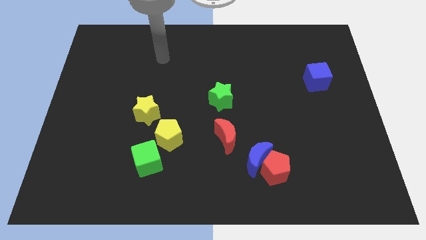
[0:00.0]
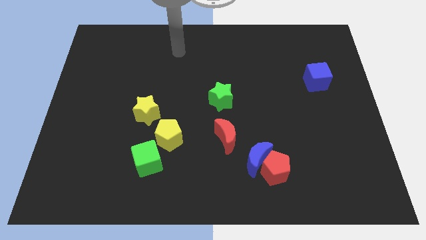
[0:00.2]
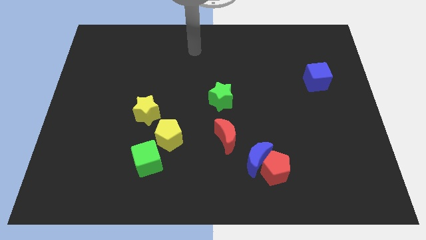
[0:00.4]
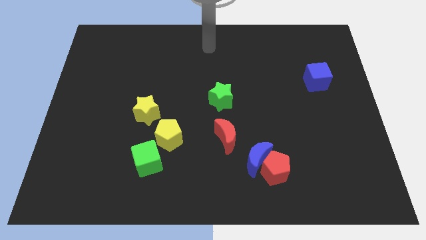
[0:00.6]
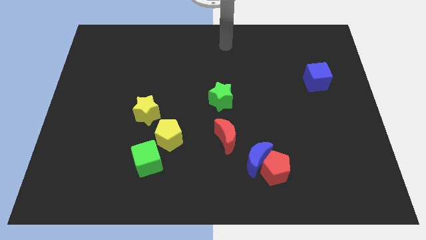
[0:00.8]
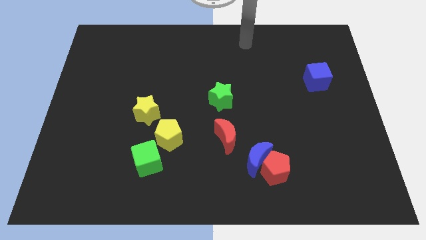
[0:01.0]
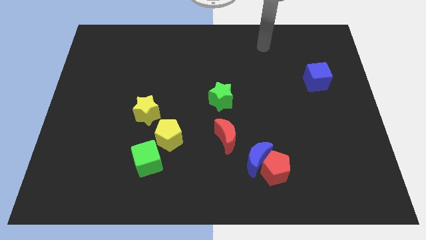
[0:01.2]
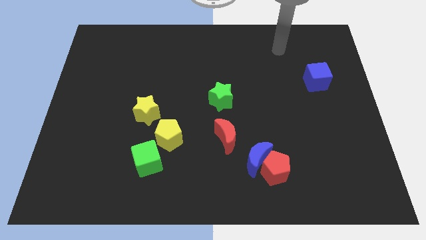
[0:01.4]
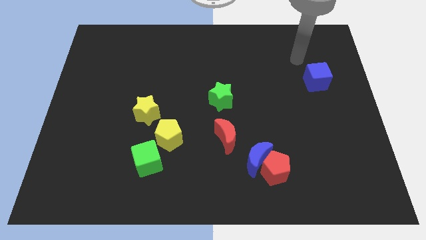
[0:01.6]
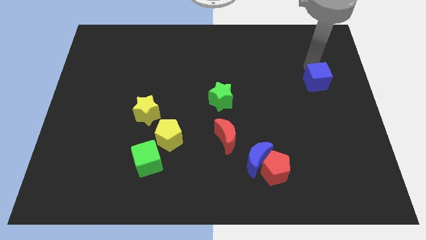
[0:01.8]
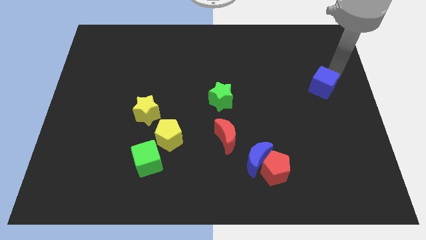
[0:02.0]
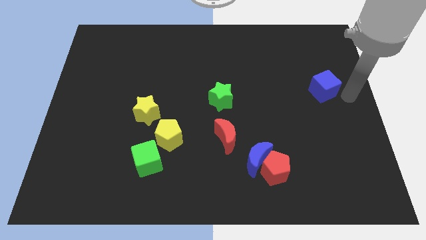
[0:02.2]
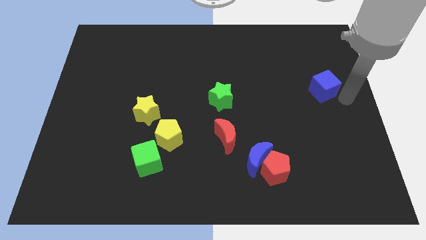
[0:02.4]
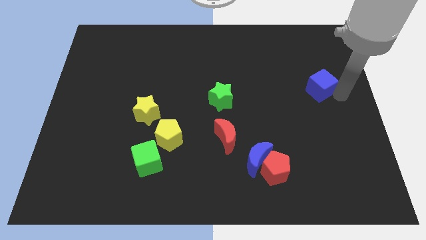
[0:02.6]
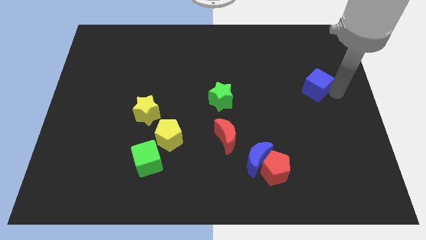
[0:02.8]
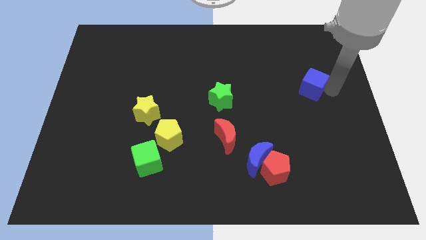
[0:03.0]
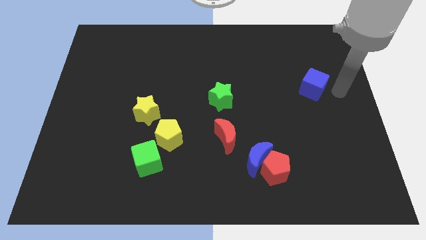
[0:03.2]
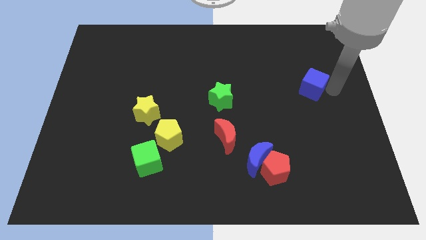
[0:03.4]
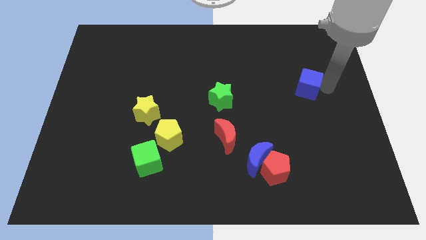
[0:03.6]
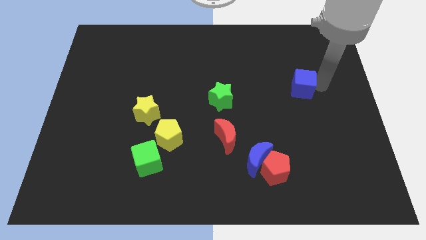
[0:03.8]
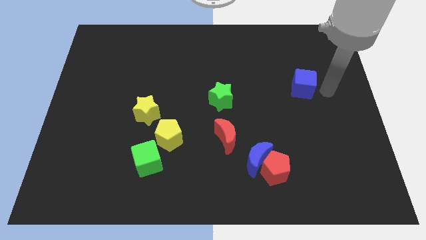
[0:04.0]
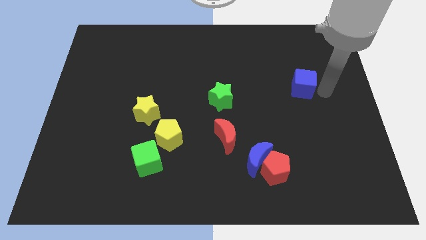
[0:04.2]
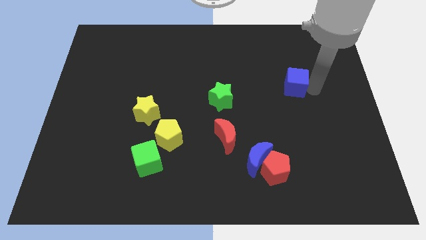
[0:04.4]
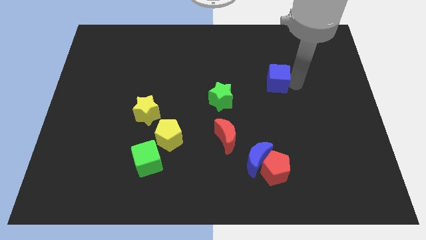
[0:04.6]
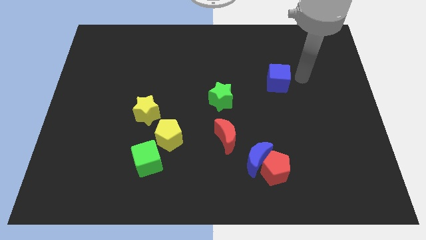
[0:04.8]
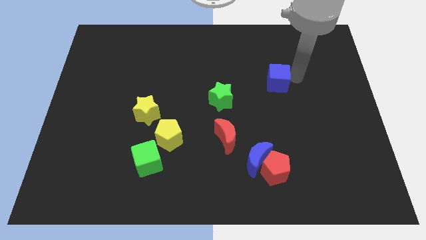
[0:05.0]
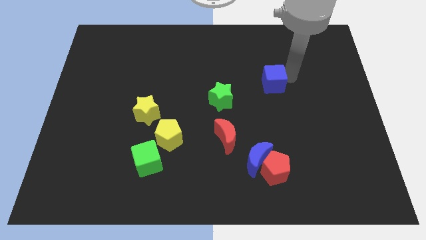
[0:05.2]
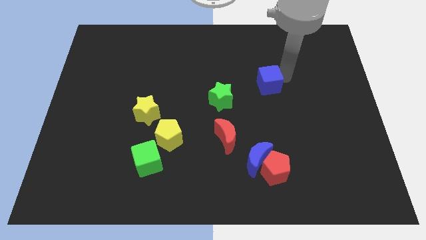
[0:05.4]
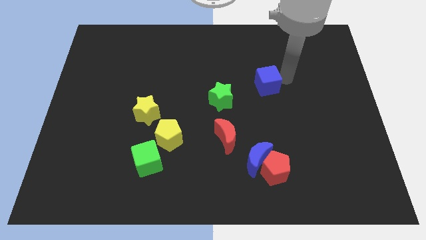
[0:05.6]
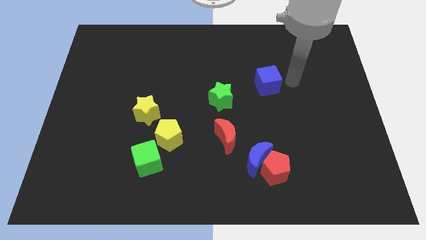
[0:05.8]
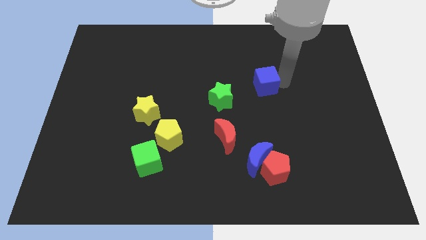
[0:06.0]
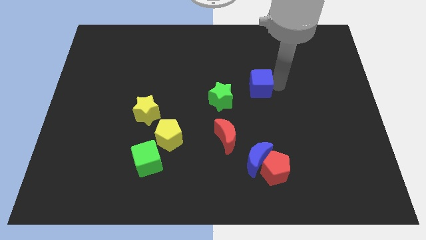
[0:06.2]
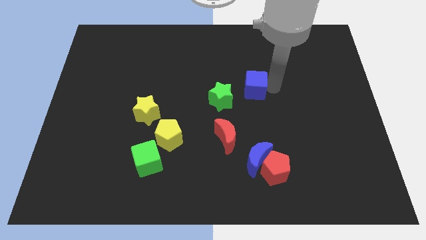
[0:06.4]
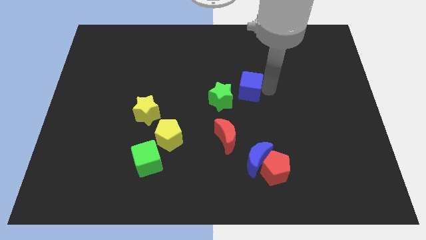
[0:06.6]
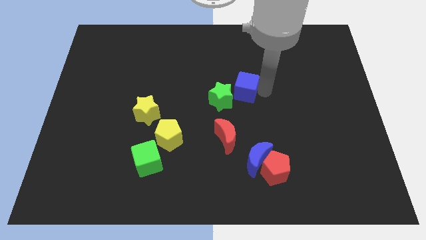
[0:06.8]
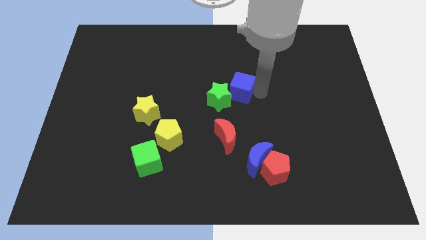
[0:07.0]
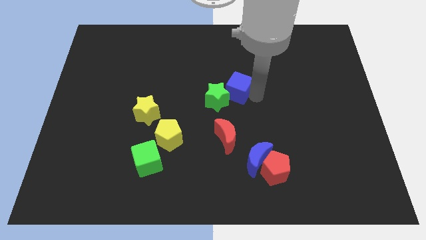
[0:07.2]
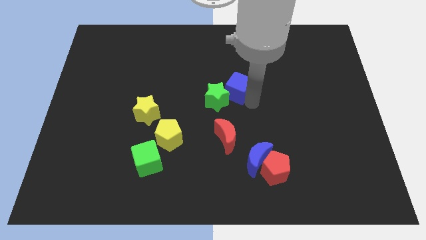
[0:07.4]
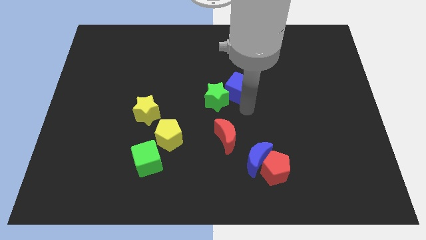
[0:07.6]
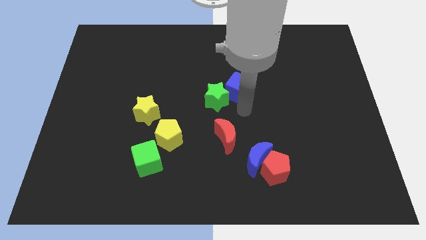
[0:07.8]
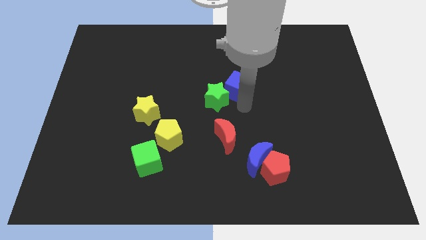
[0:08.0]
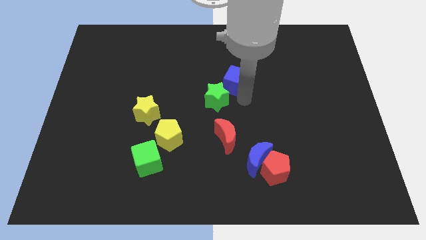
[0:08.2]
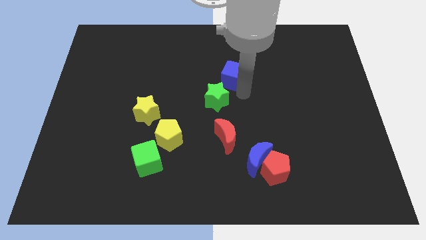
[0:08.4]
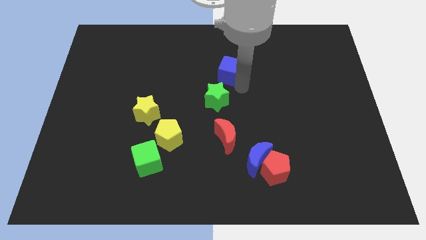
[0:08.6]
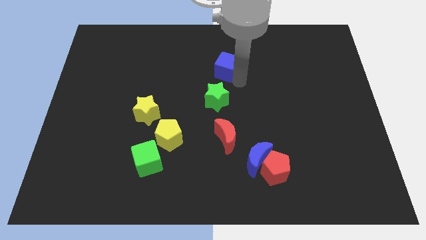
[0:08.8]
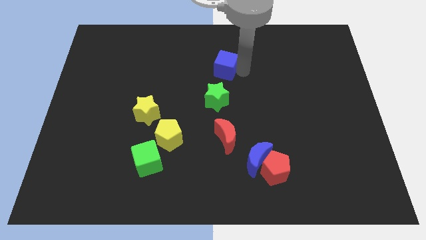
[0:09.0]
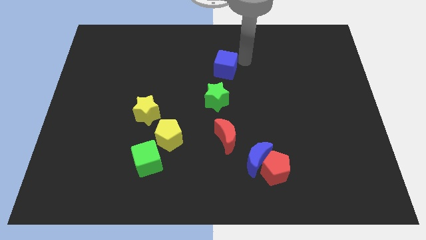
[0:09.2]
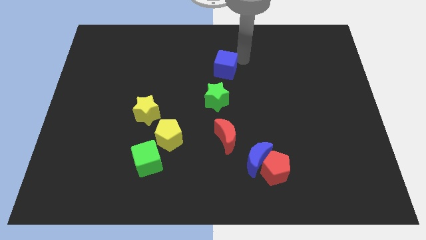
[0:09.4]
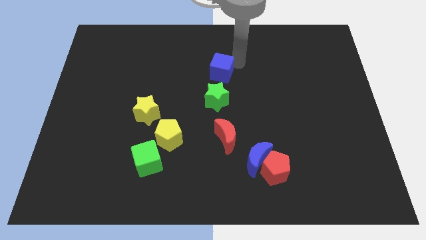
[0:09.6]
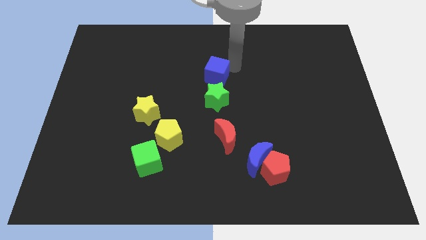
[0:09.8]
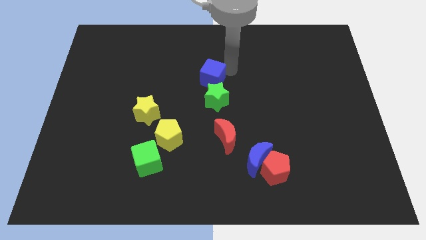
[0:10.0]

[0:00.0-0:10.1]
slide the blue cube diagonally up and to the left of the green star

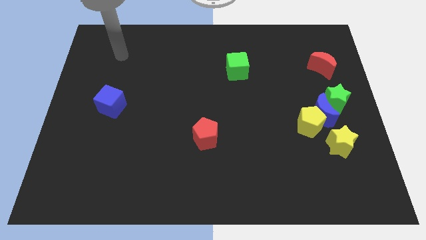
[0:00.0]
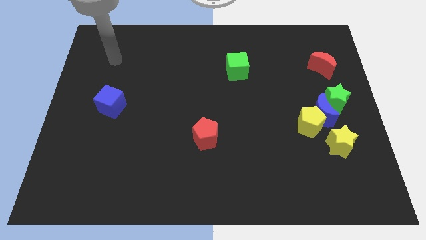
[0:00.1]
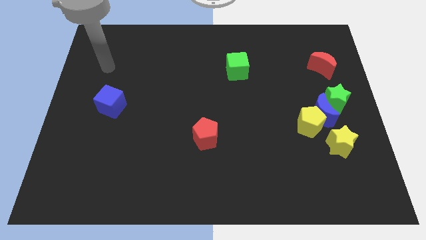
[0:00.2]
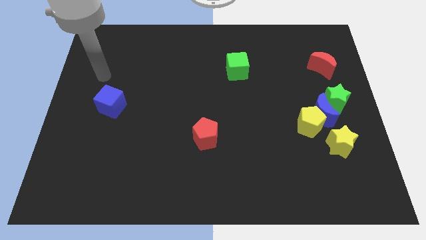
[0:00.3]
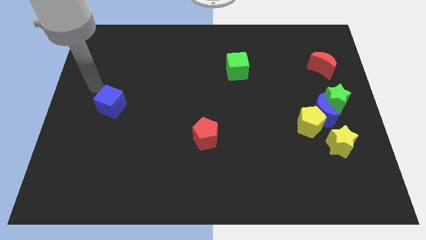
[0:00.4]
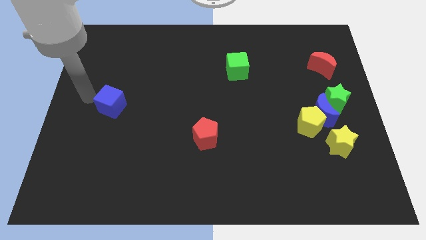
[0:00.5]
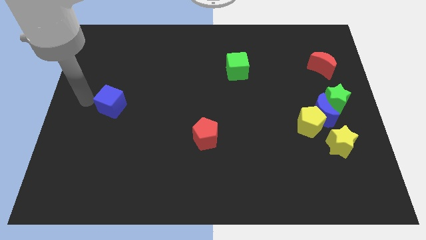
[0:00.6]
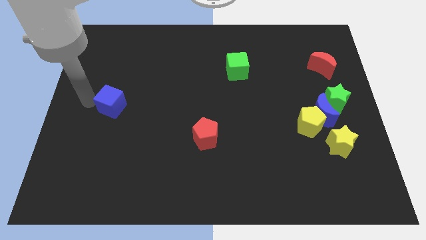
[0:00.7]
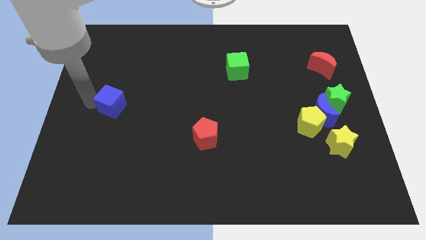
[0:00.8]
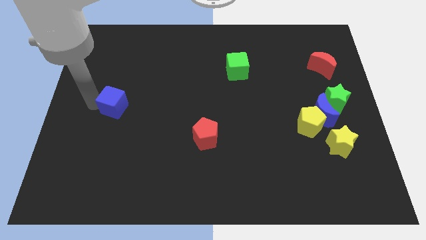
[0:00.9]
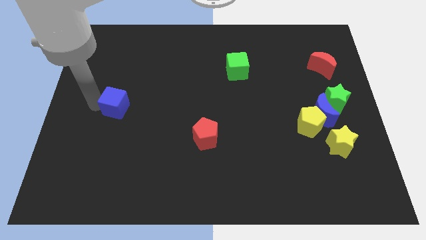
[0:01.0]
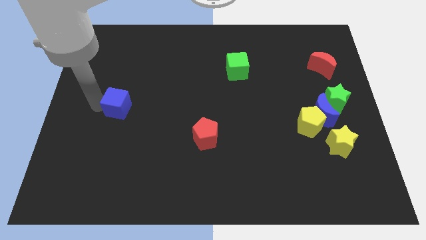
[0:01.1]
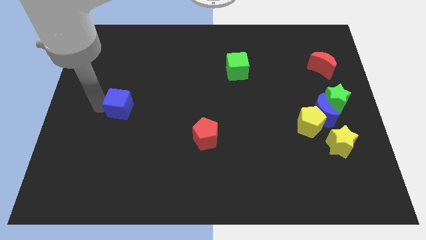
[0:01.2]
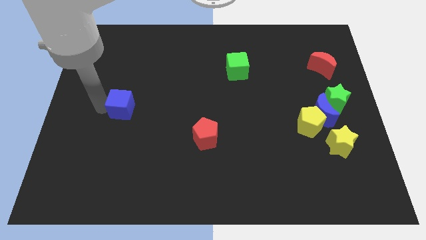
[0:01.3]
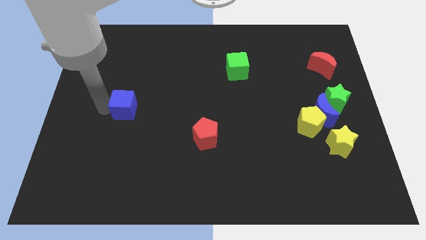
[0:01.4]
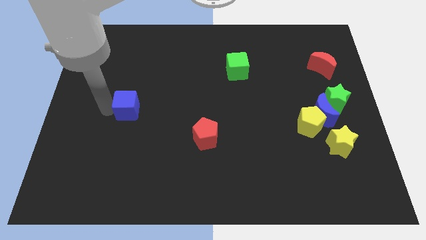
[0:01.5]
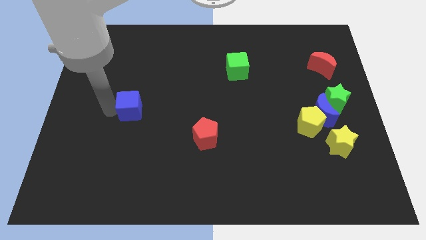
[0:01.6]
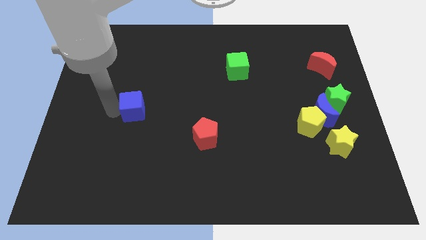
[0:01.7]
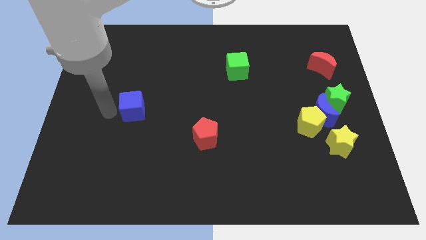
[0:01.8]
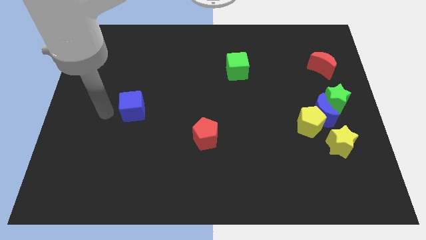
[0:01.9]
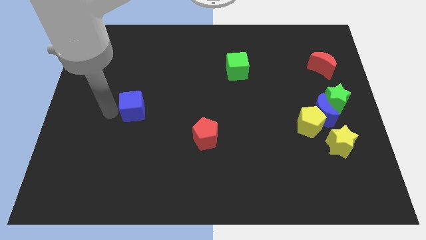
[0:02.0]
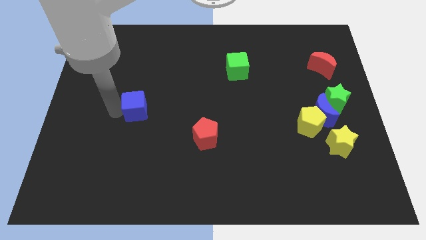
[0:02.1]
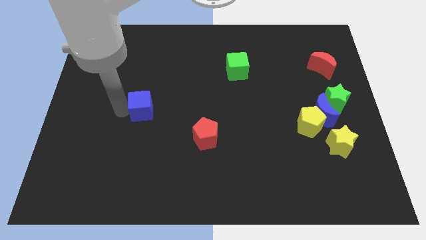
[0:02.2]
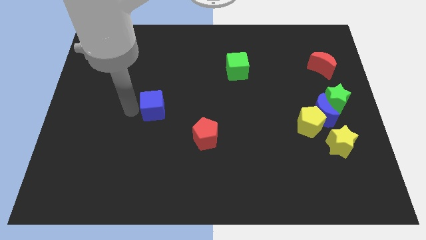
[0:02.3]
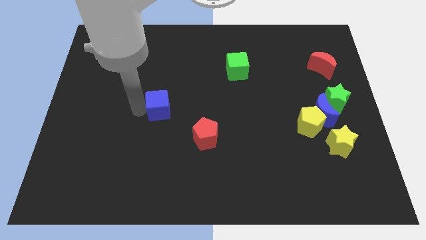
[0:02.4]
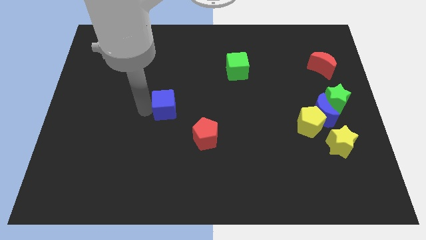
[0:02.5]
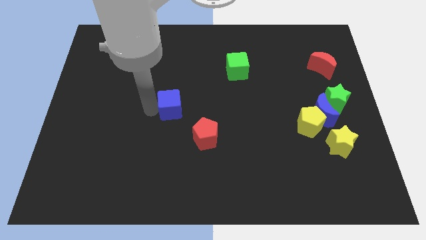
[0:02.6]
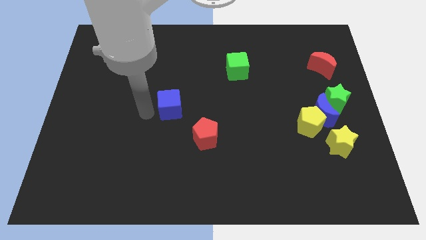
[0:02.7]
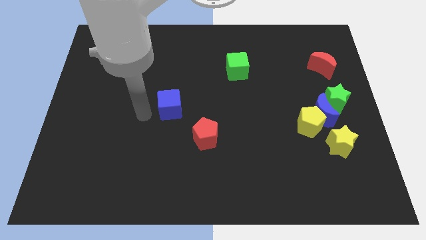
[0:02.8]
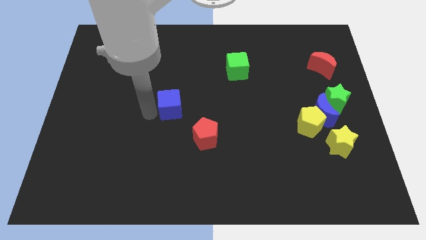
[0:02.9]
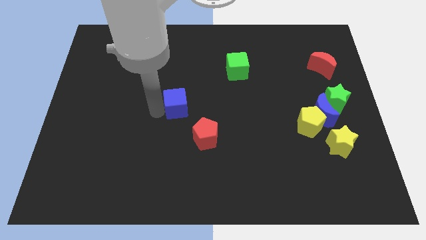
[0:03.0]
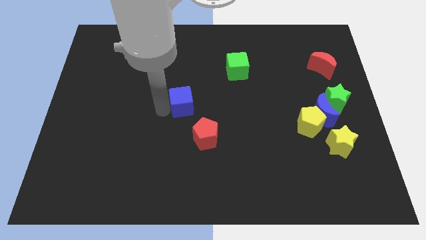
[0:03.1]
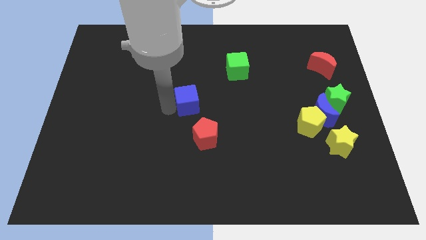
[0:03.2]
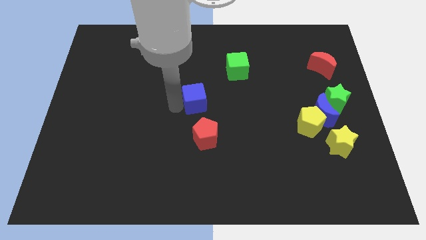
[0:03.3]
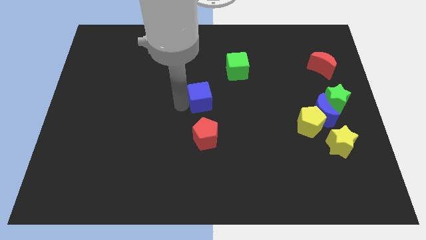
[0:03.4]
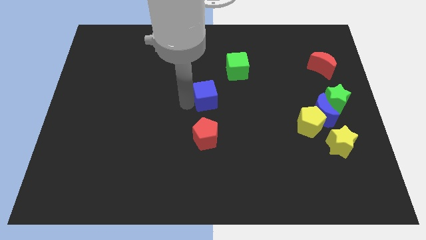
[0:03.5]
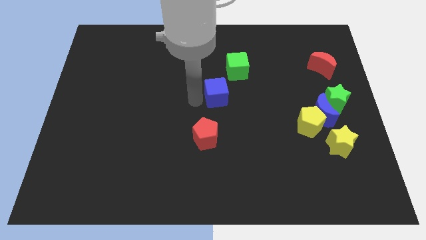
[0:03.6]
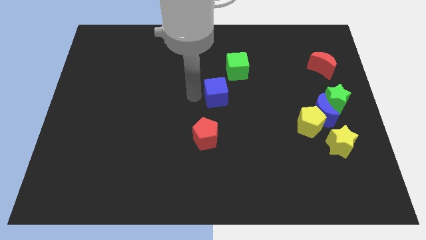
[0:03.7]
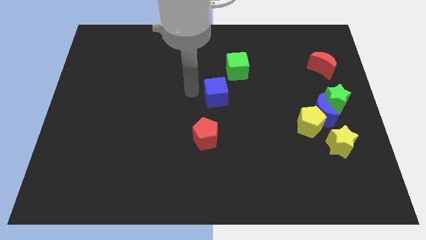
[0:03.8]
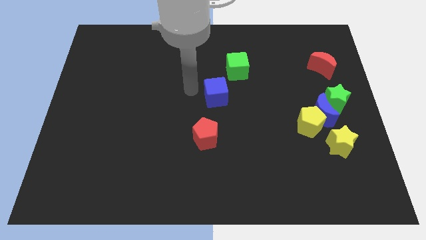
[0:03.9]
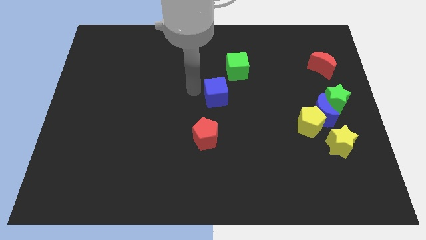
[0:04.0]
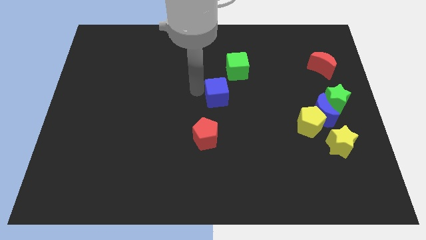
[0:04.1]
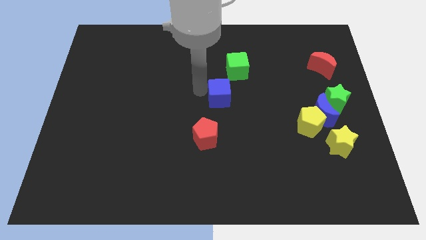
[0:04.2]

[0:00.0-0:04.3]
push the blue cube to the bottom of the green cube
